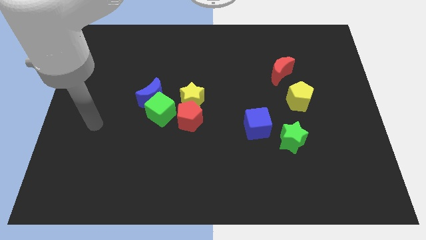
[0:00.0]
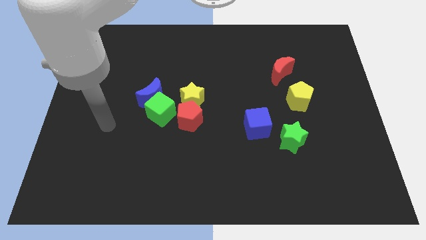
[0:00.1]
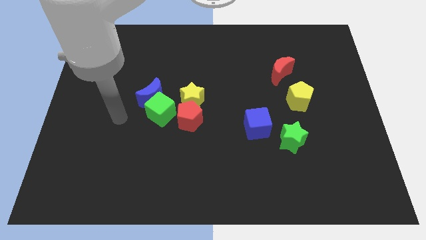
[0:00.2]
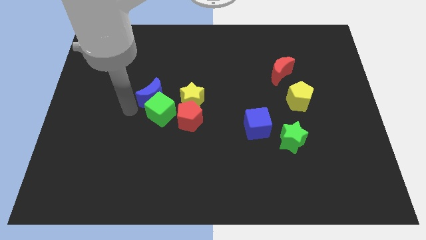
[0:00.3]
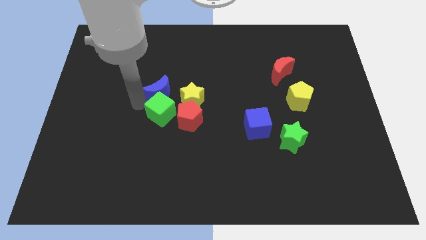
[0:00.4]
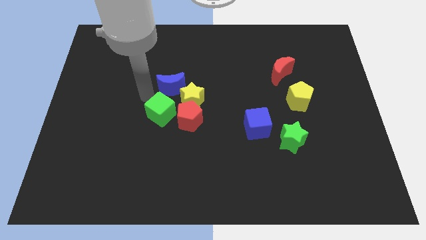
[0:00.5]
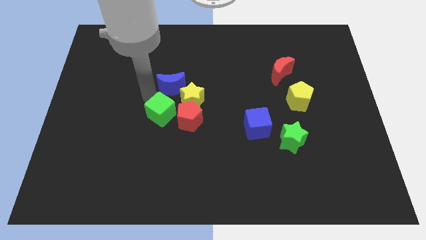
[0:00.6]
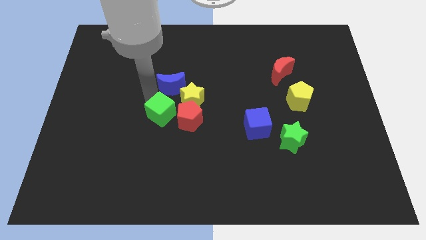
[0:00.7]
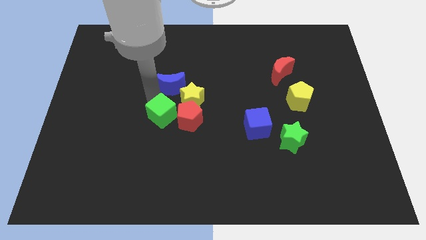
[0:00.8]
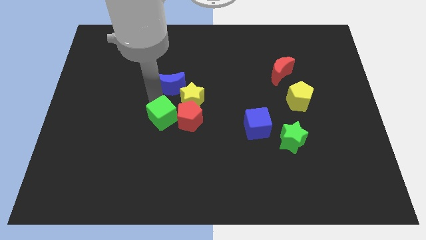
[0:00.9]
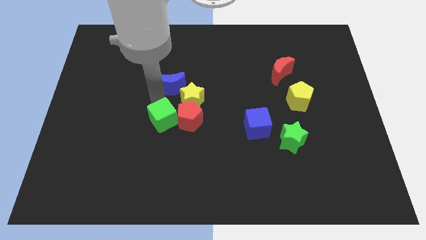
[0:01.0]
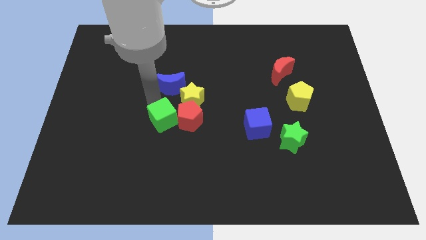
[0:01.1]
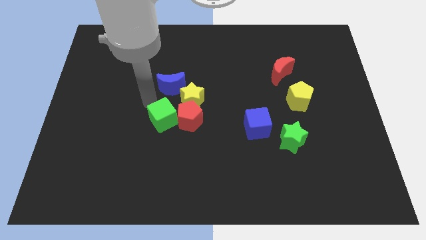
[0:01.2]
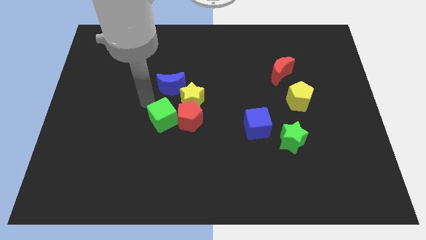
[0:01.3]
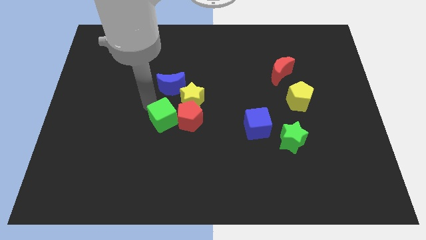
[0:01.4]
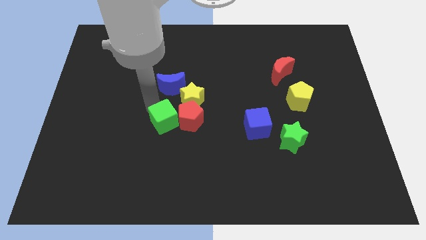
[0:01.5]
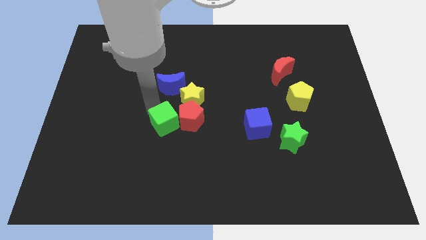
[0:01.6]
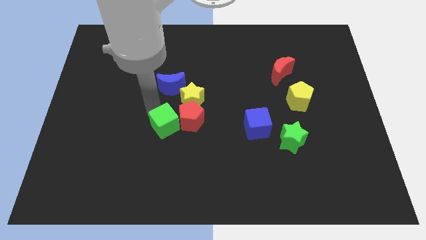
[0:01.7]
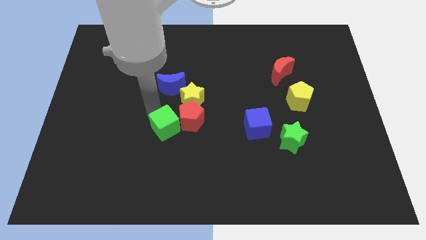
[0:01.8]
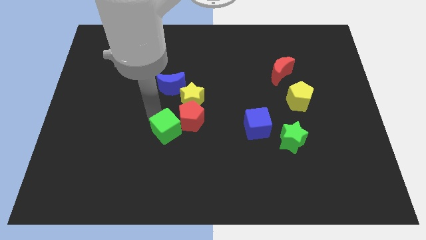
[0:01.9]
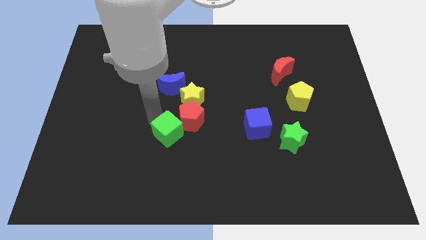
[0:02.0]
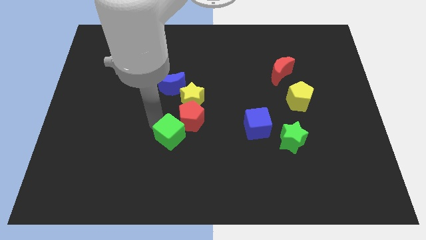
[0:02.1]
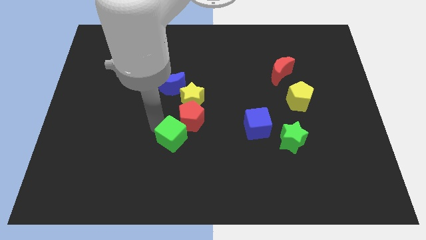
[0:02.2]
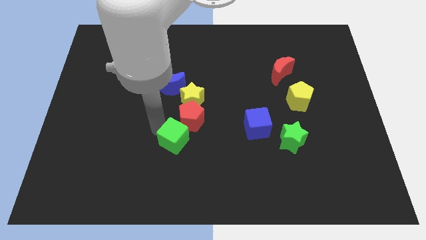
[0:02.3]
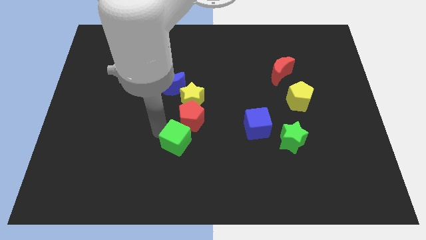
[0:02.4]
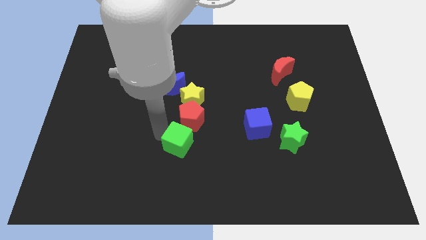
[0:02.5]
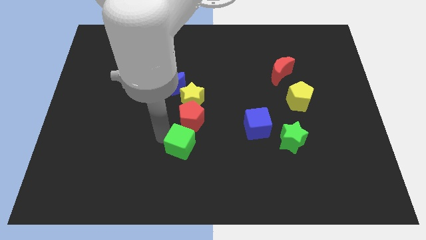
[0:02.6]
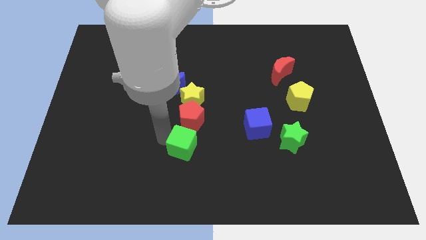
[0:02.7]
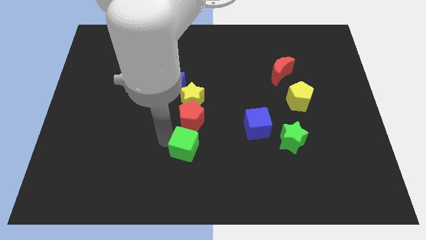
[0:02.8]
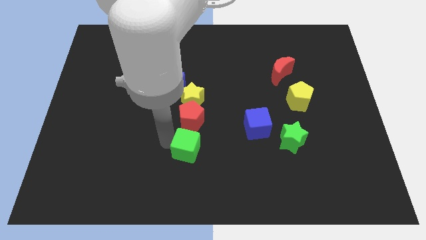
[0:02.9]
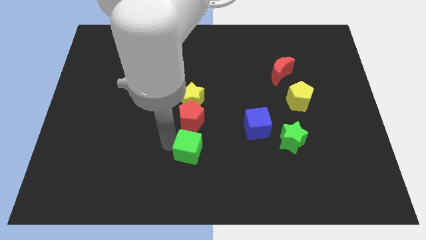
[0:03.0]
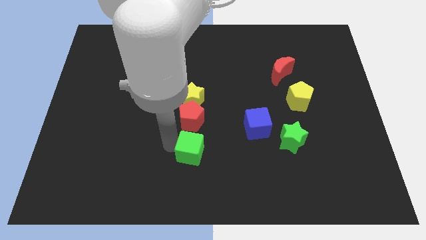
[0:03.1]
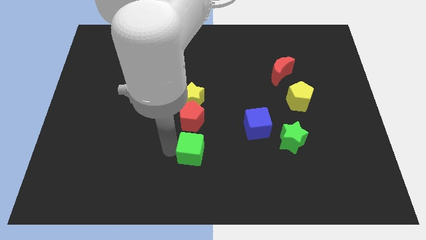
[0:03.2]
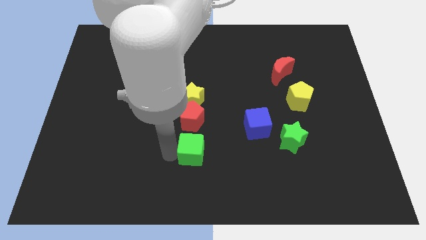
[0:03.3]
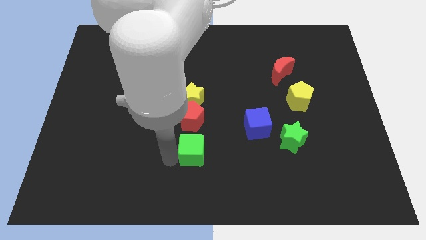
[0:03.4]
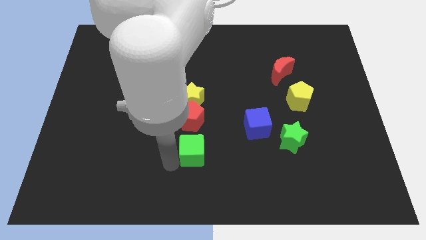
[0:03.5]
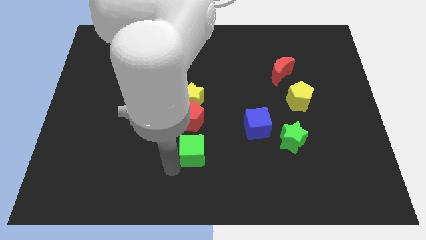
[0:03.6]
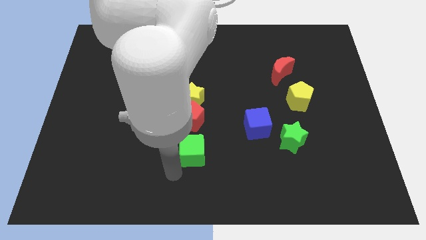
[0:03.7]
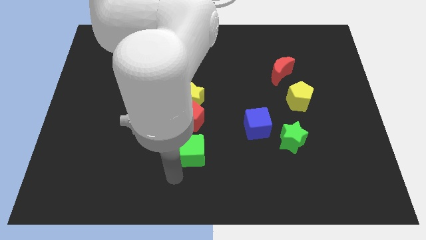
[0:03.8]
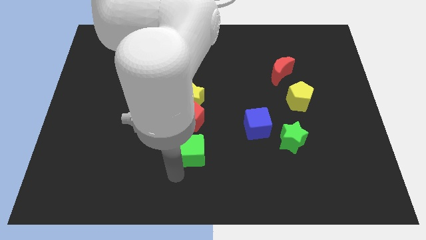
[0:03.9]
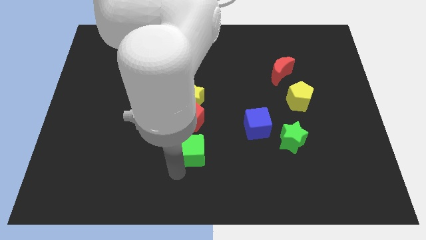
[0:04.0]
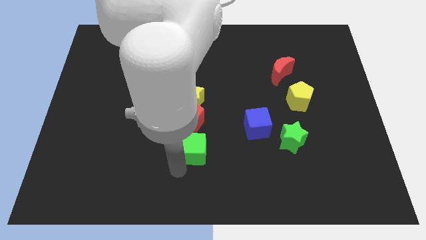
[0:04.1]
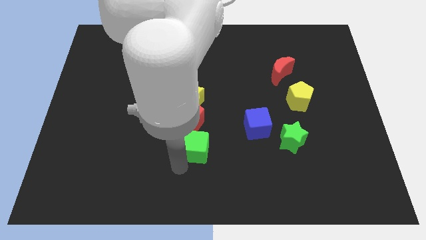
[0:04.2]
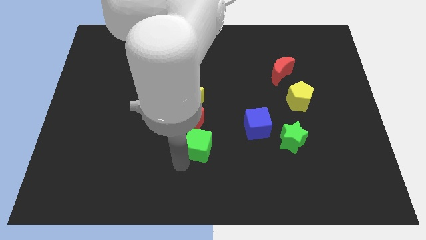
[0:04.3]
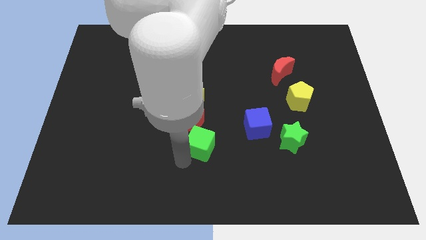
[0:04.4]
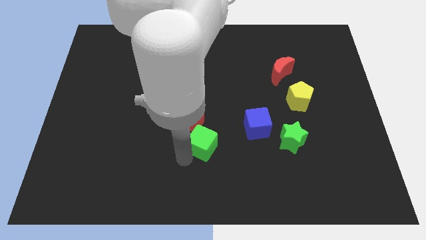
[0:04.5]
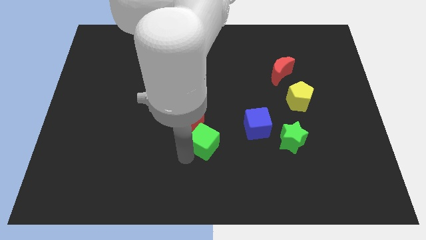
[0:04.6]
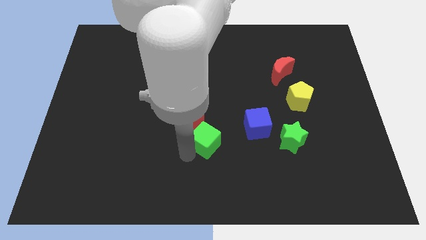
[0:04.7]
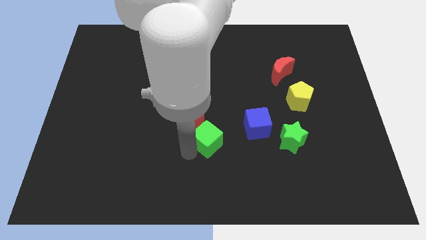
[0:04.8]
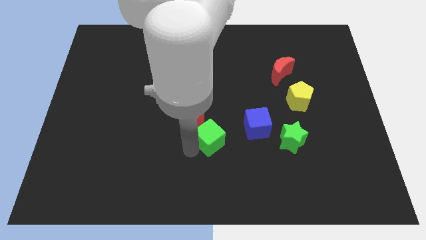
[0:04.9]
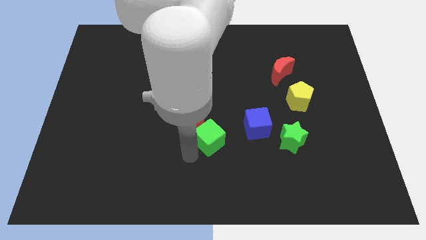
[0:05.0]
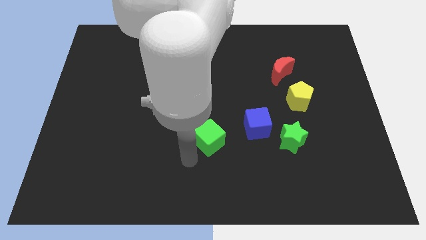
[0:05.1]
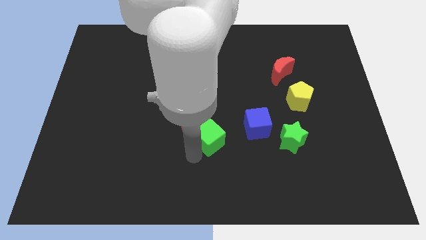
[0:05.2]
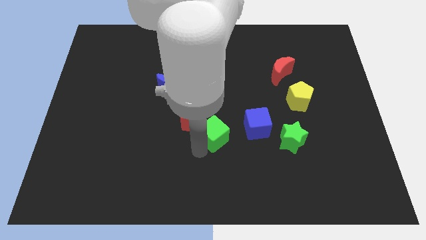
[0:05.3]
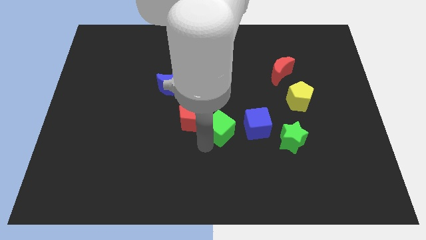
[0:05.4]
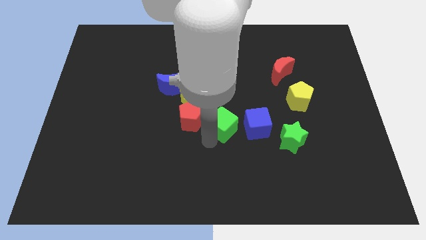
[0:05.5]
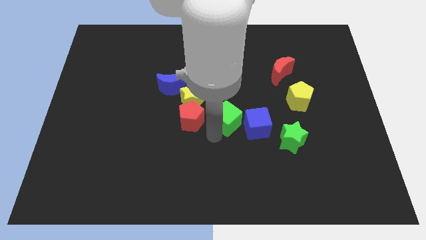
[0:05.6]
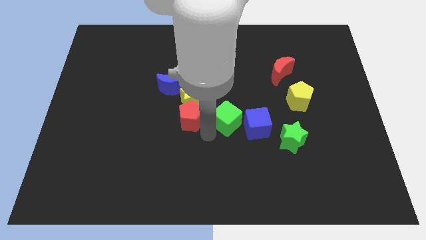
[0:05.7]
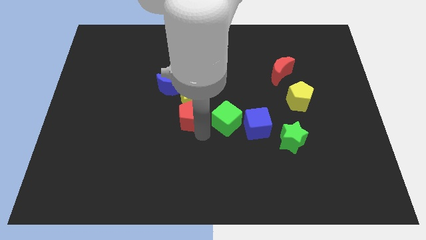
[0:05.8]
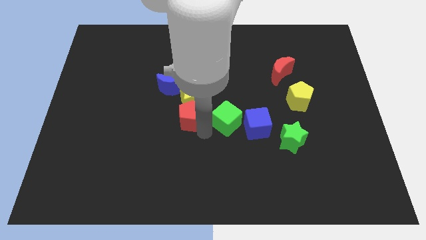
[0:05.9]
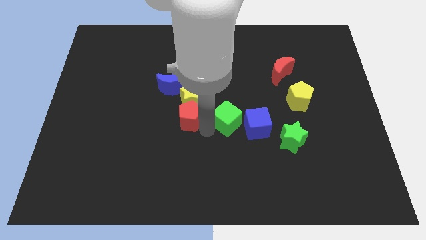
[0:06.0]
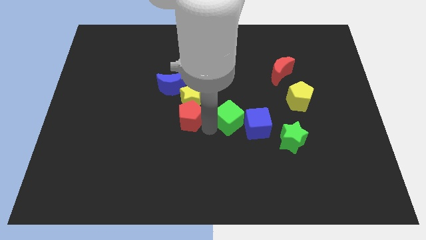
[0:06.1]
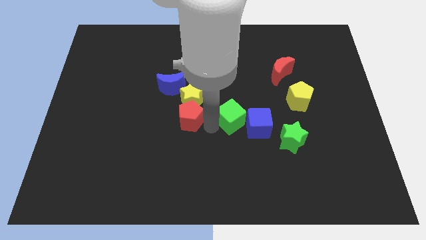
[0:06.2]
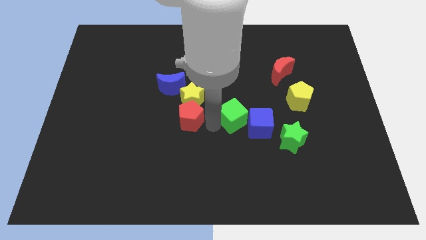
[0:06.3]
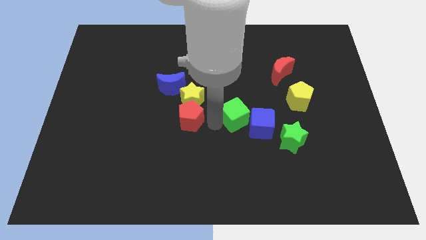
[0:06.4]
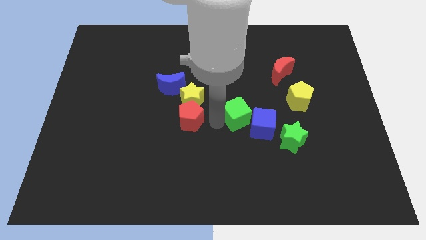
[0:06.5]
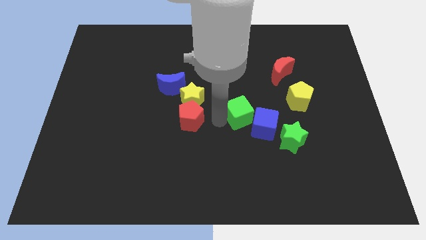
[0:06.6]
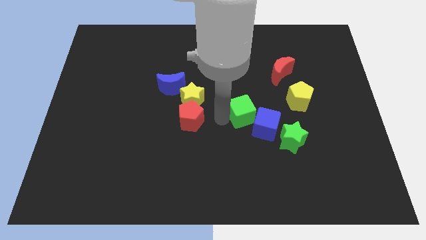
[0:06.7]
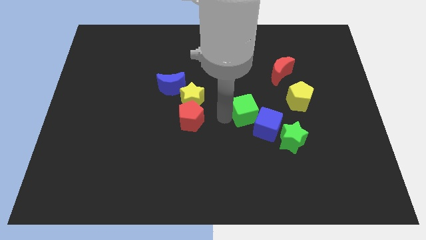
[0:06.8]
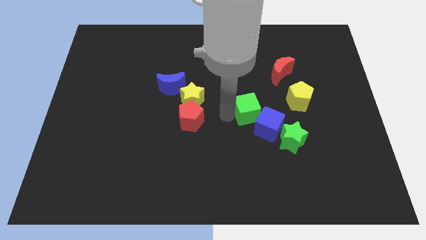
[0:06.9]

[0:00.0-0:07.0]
slide the green cube to the right

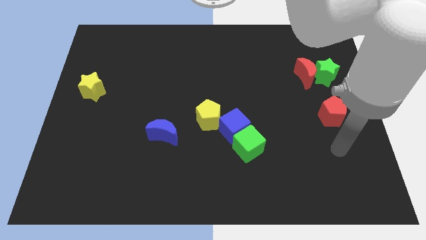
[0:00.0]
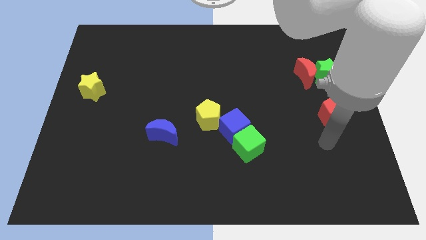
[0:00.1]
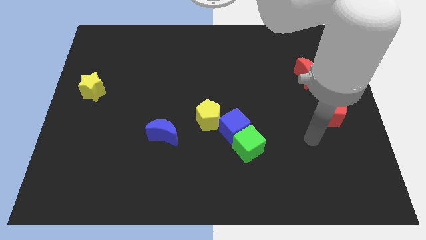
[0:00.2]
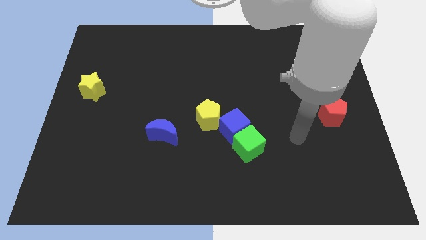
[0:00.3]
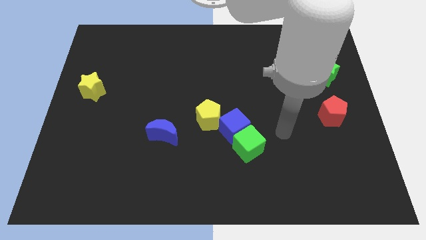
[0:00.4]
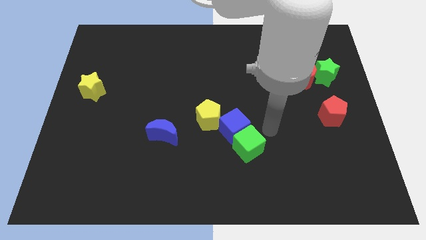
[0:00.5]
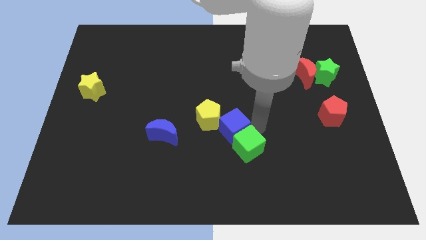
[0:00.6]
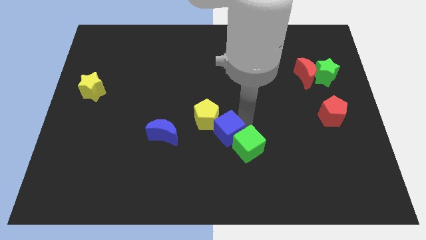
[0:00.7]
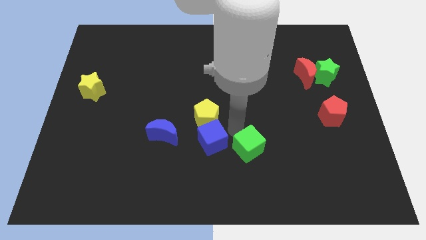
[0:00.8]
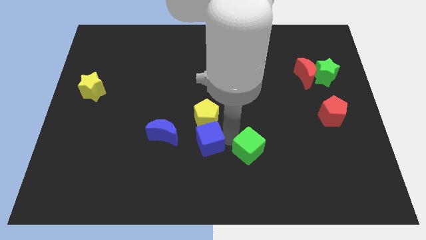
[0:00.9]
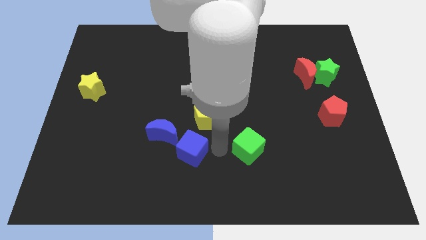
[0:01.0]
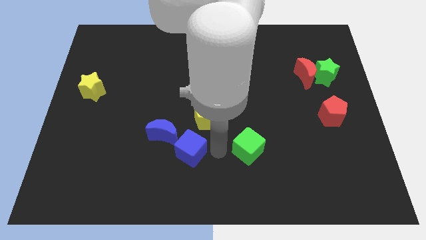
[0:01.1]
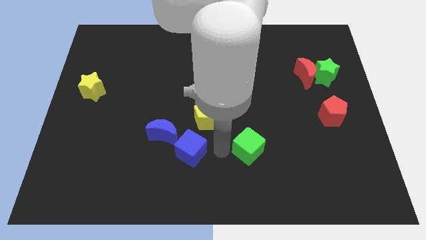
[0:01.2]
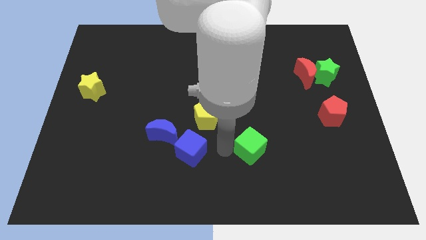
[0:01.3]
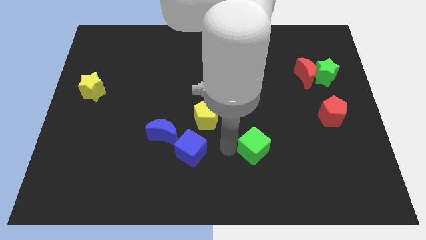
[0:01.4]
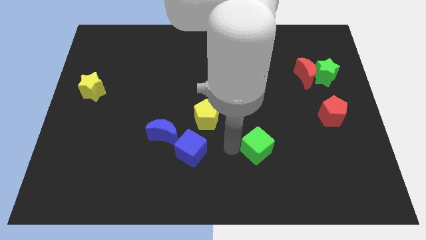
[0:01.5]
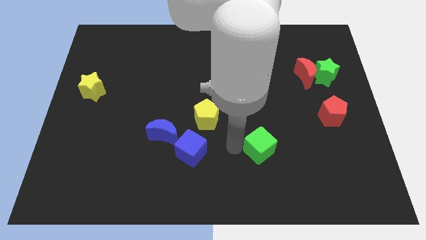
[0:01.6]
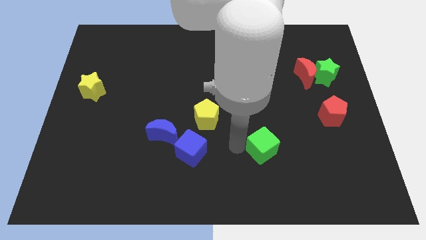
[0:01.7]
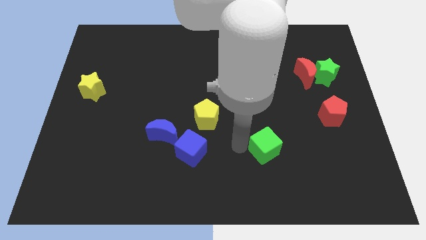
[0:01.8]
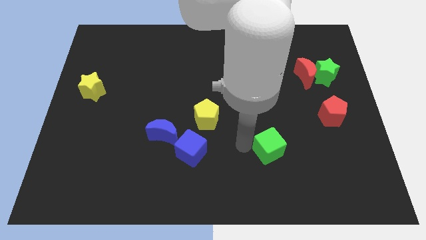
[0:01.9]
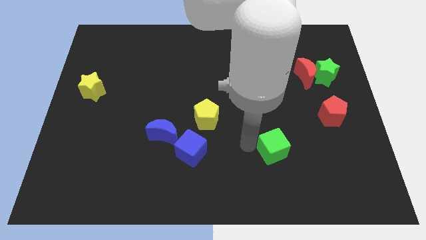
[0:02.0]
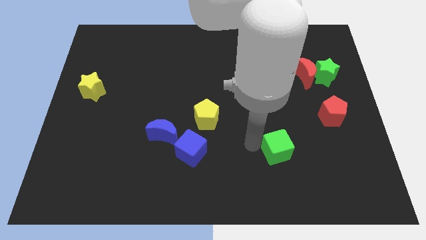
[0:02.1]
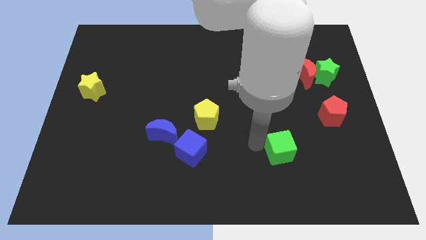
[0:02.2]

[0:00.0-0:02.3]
slide the green cube slightly to the right
